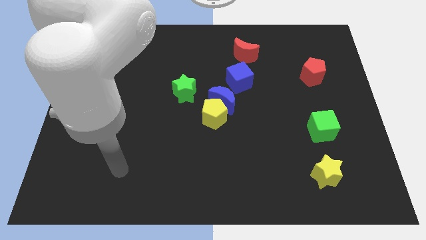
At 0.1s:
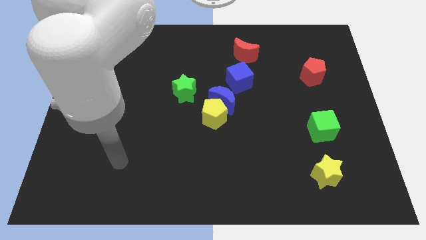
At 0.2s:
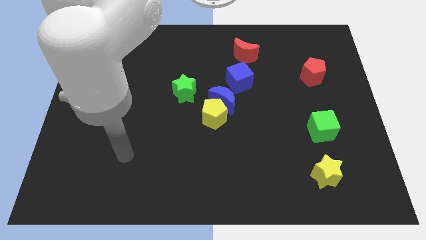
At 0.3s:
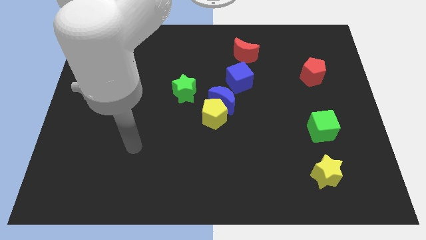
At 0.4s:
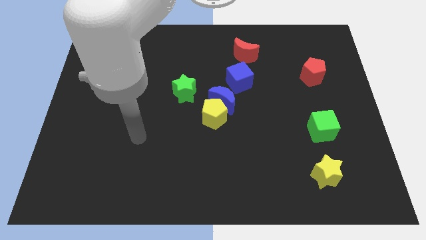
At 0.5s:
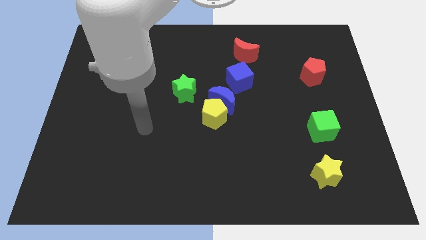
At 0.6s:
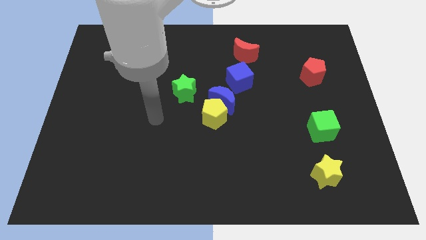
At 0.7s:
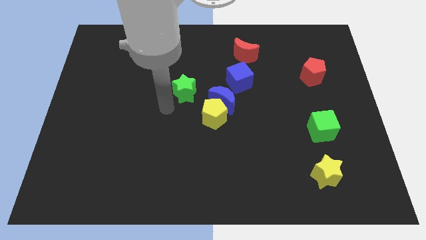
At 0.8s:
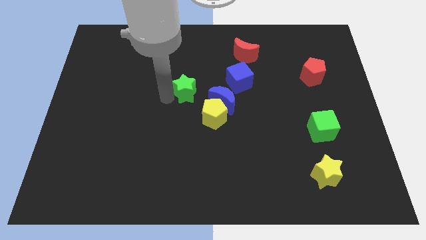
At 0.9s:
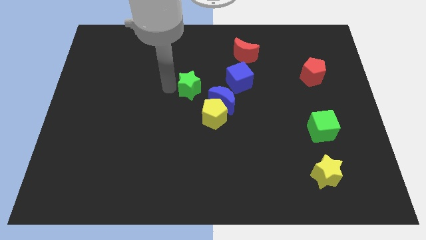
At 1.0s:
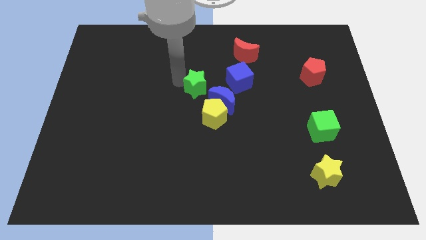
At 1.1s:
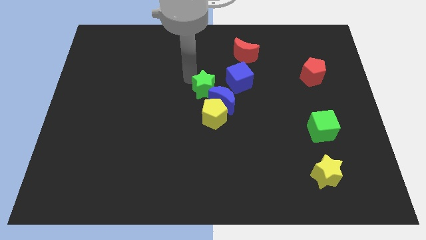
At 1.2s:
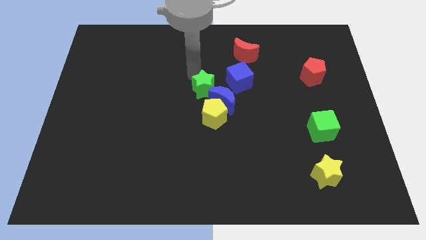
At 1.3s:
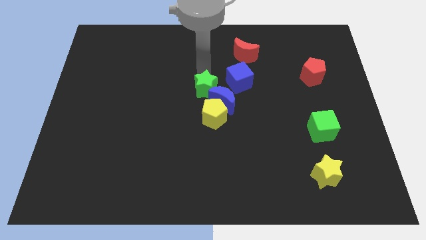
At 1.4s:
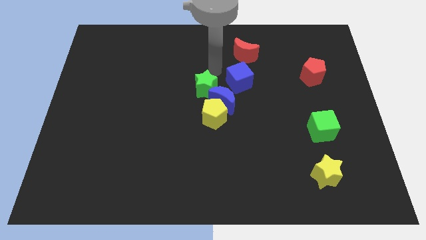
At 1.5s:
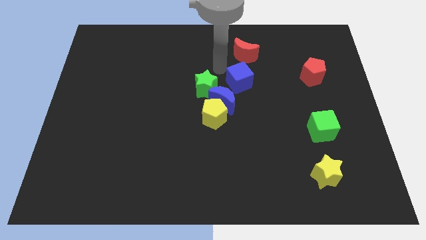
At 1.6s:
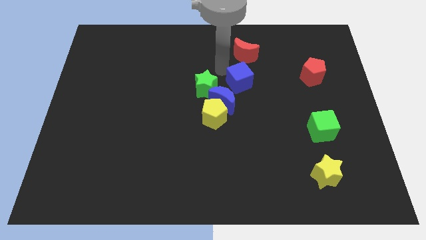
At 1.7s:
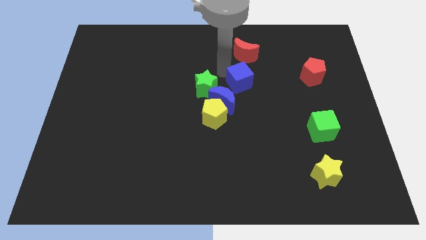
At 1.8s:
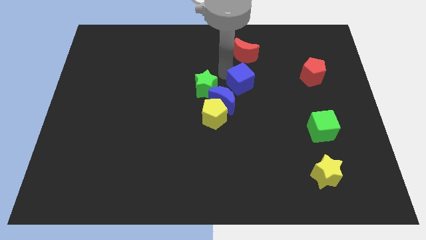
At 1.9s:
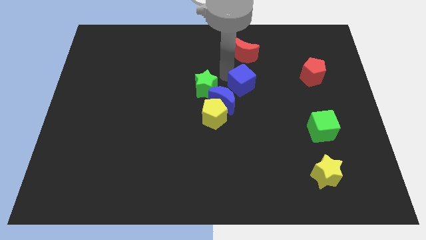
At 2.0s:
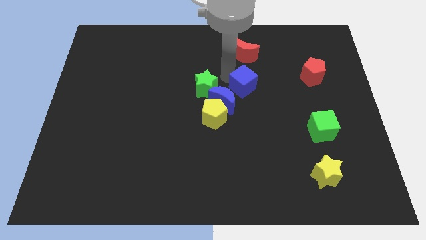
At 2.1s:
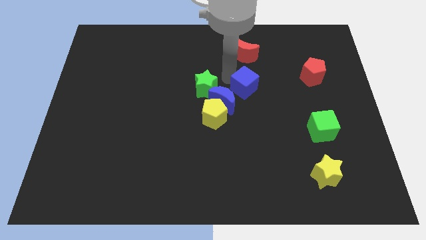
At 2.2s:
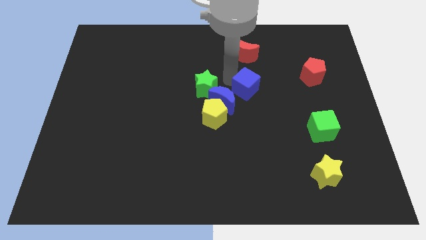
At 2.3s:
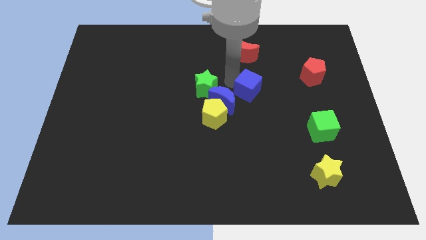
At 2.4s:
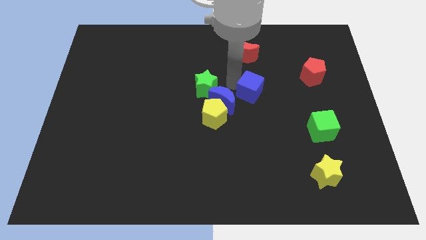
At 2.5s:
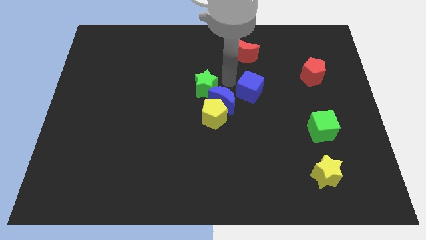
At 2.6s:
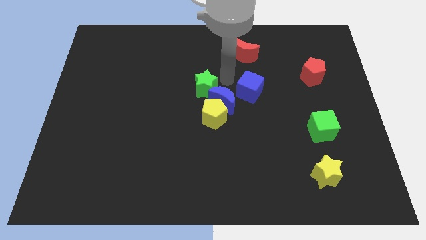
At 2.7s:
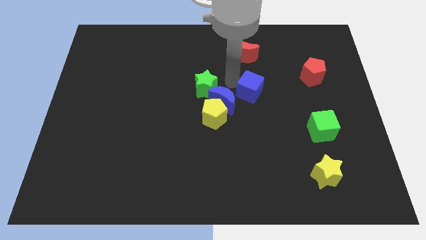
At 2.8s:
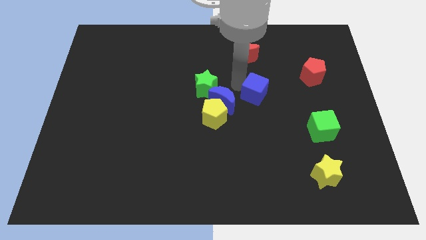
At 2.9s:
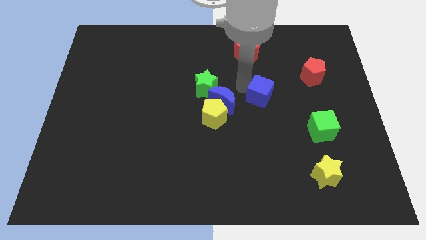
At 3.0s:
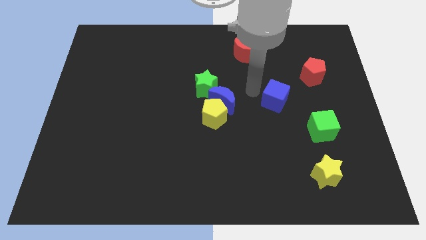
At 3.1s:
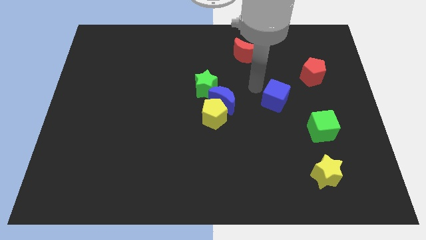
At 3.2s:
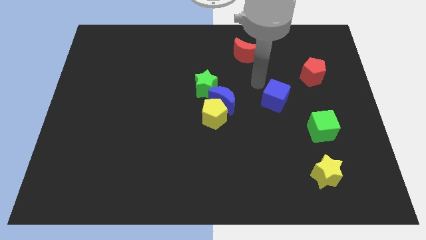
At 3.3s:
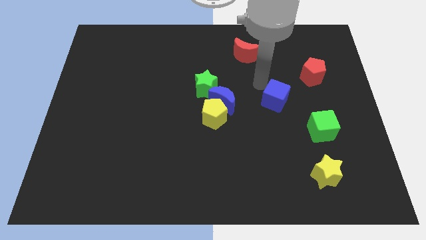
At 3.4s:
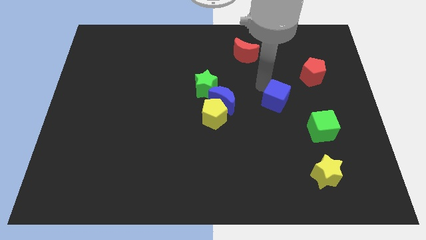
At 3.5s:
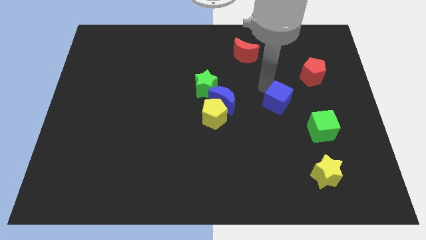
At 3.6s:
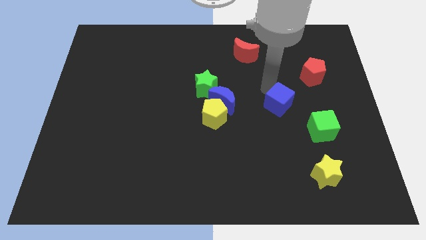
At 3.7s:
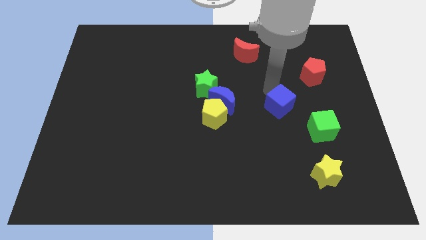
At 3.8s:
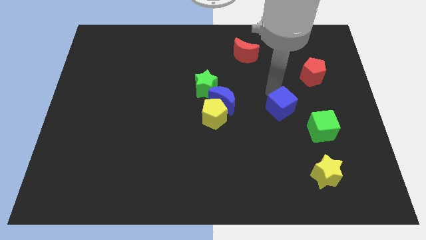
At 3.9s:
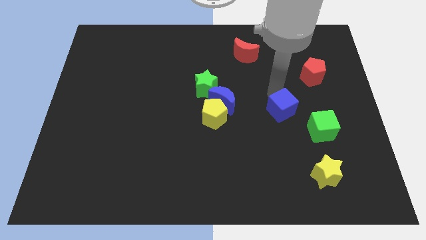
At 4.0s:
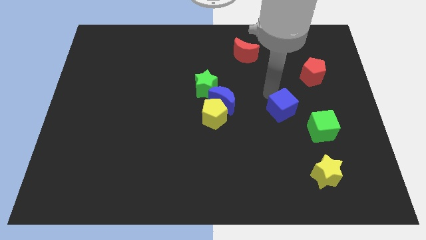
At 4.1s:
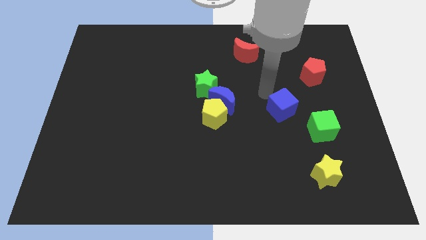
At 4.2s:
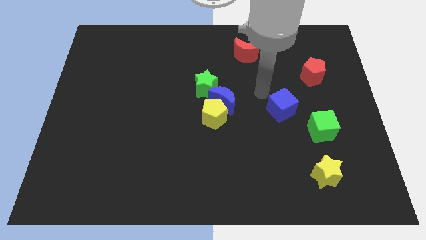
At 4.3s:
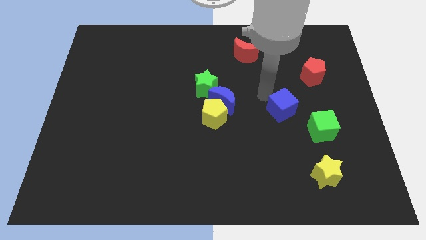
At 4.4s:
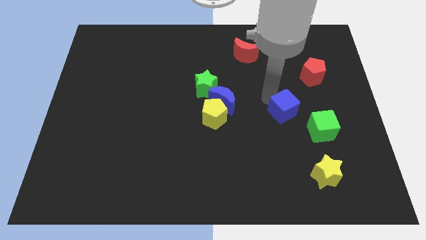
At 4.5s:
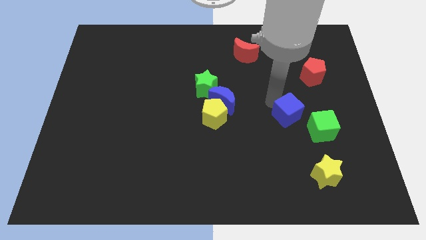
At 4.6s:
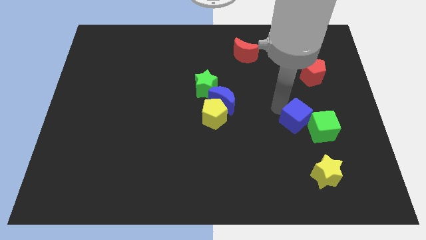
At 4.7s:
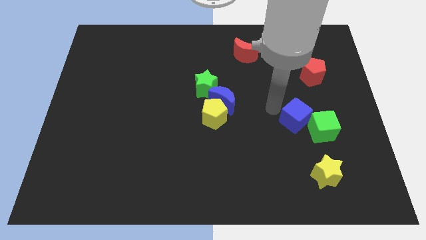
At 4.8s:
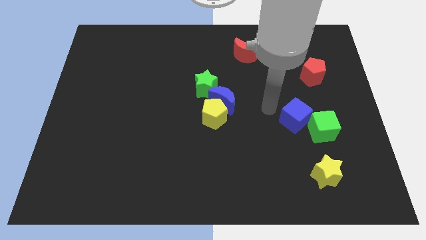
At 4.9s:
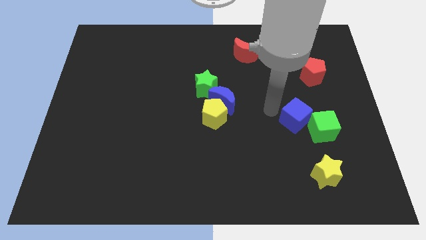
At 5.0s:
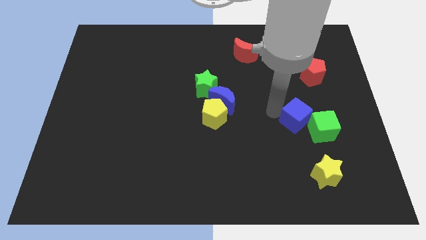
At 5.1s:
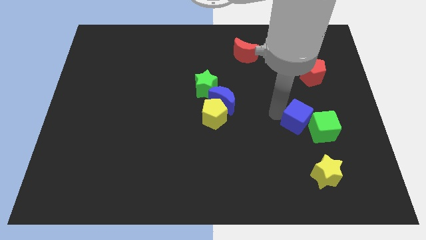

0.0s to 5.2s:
move the blue cube close to the green cube

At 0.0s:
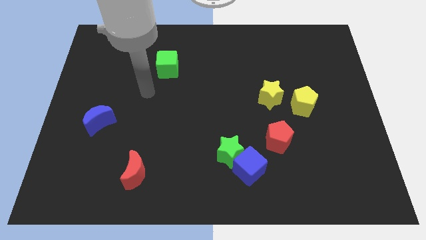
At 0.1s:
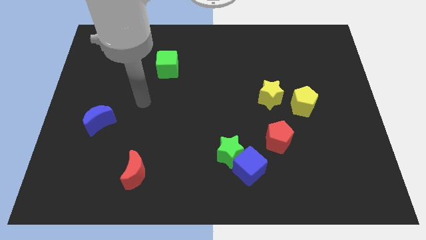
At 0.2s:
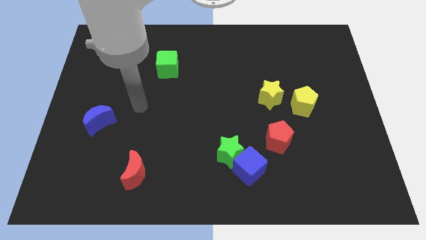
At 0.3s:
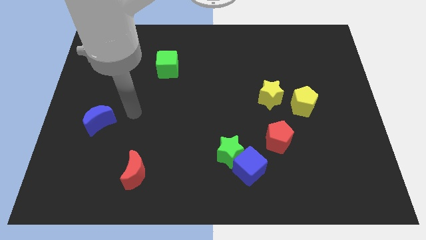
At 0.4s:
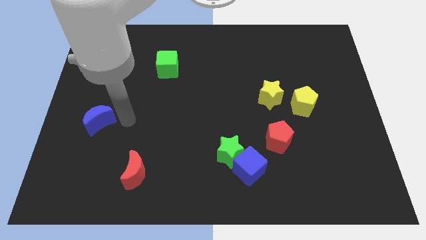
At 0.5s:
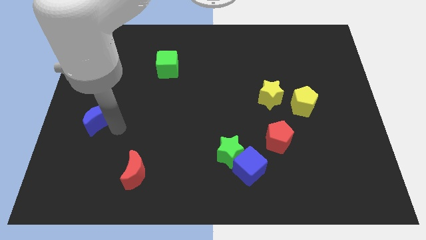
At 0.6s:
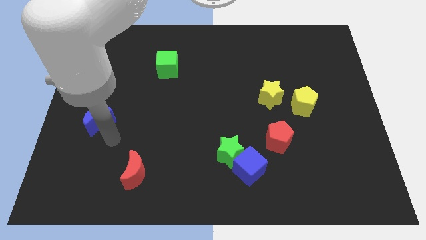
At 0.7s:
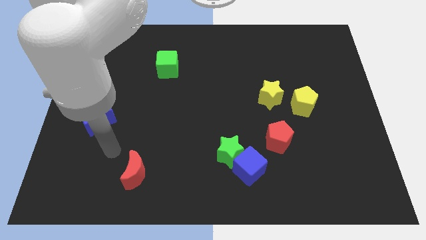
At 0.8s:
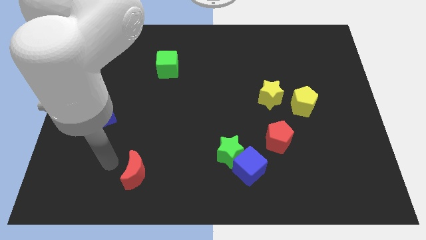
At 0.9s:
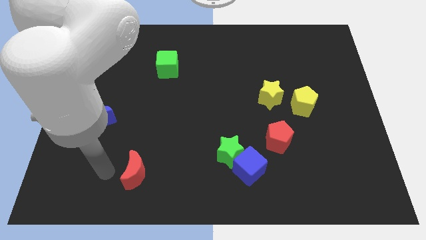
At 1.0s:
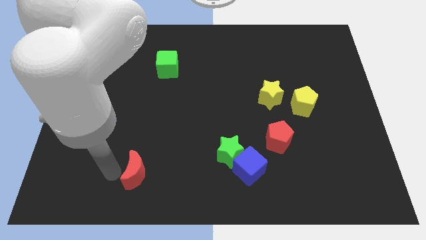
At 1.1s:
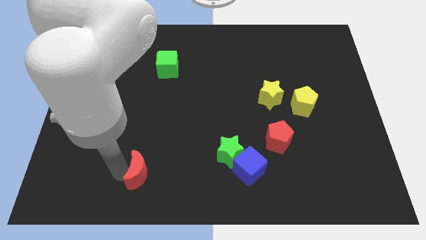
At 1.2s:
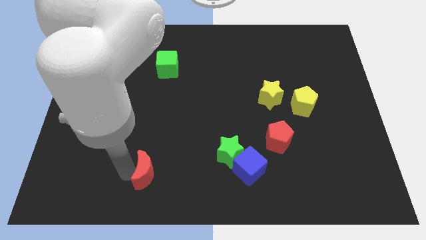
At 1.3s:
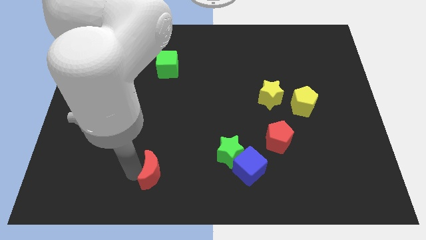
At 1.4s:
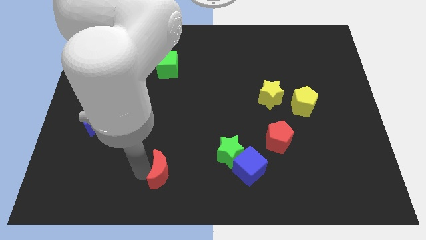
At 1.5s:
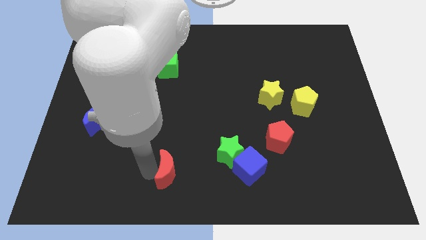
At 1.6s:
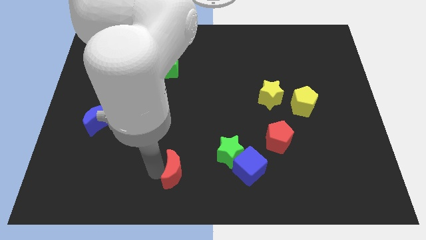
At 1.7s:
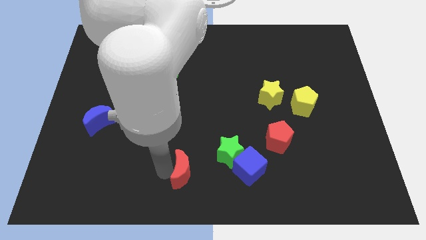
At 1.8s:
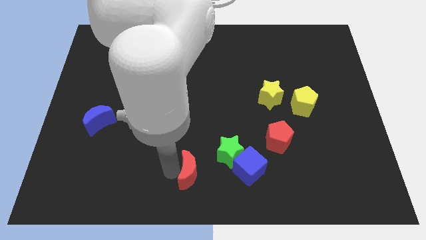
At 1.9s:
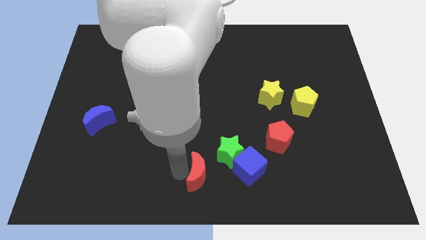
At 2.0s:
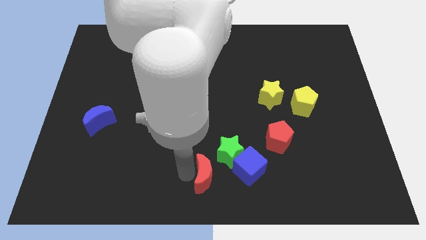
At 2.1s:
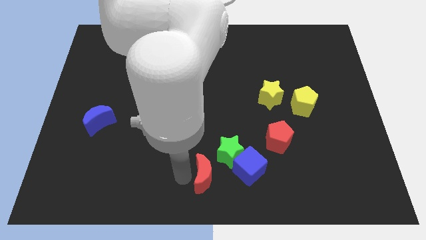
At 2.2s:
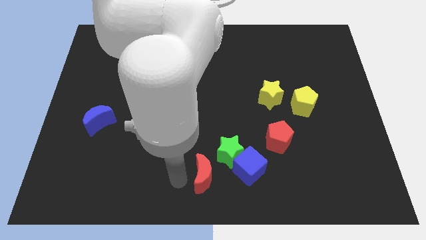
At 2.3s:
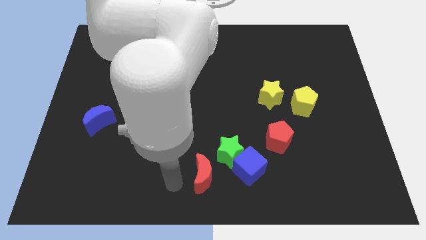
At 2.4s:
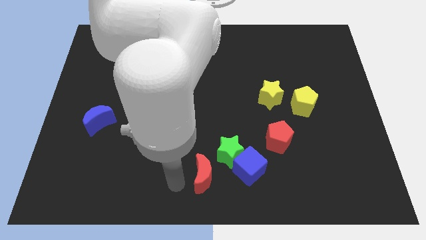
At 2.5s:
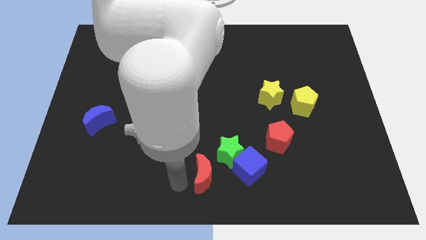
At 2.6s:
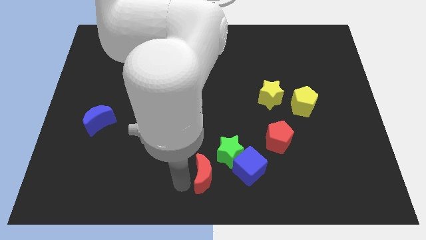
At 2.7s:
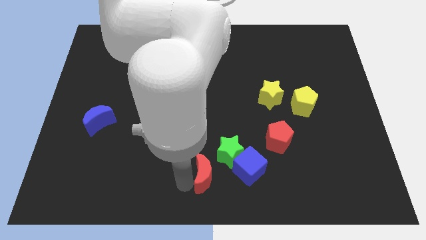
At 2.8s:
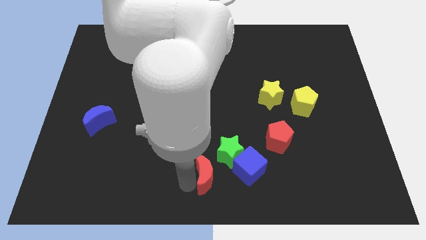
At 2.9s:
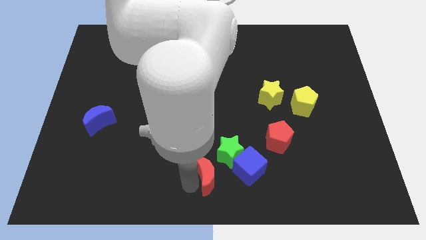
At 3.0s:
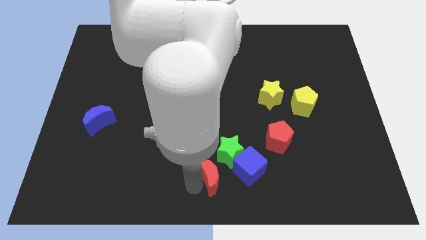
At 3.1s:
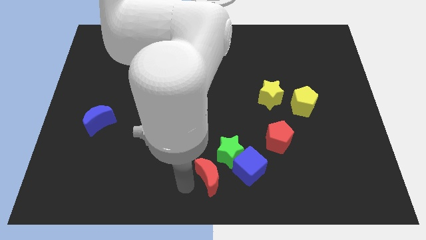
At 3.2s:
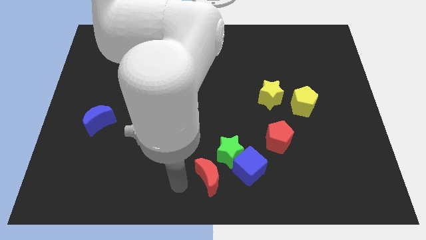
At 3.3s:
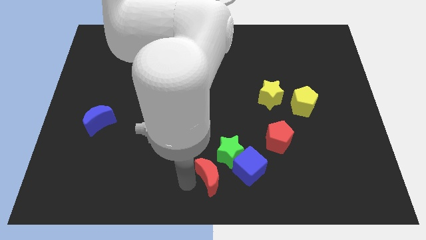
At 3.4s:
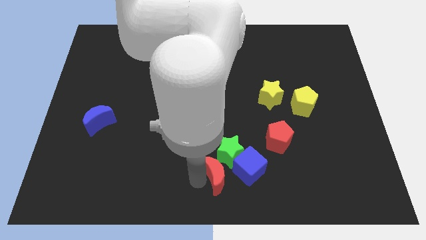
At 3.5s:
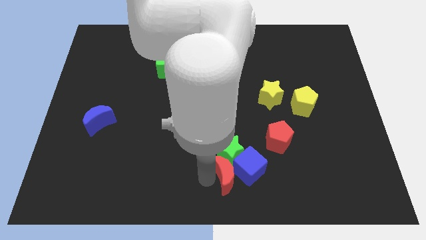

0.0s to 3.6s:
slide the red moon towards the blue cube
